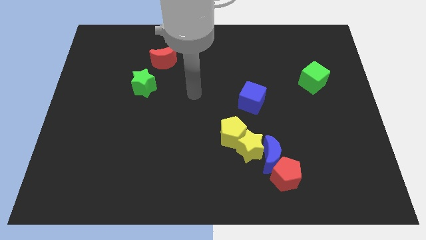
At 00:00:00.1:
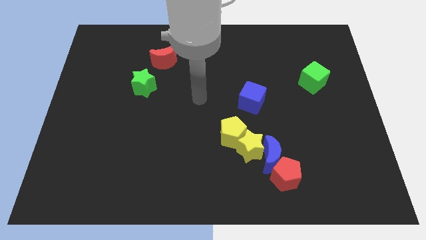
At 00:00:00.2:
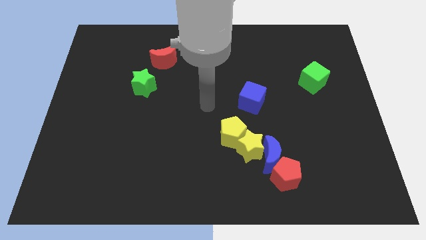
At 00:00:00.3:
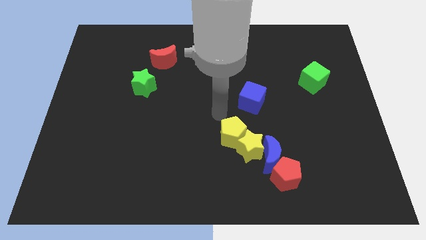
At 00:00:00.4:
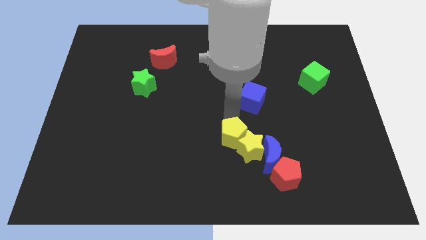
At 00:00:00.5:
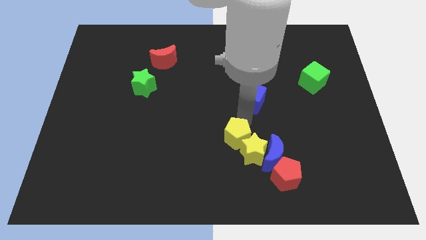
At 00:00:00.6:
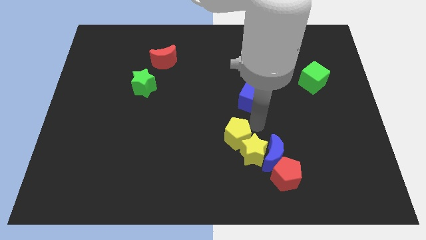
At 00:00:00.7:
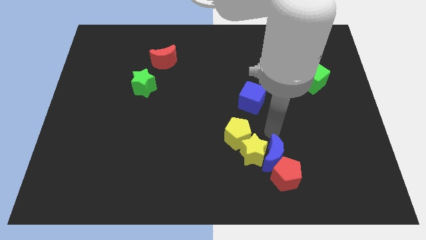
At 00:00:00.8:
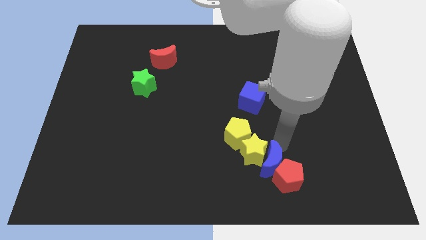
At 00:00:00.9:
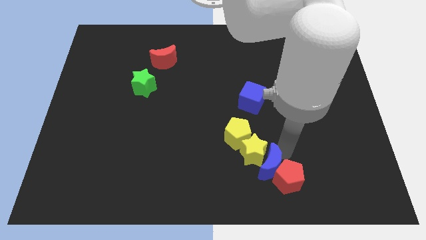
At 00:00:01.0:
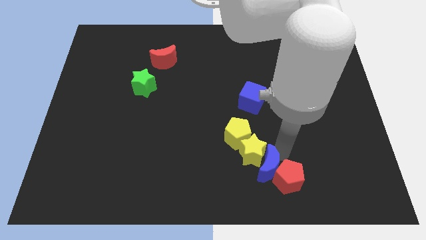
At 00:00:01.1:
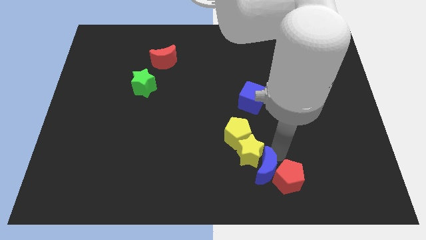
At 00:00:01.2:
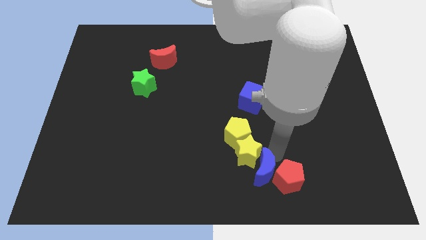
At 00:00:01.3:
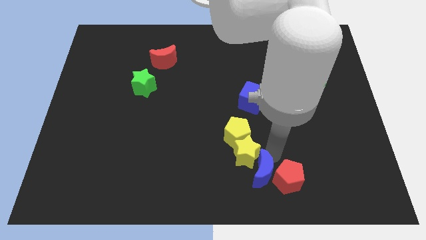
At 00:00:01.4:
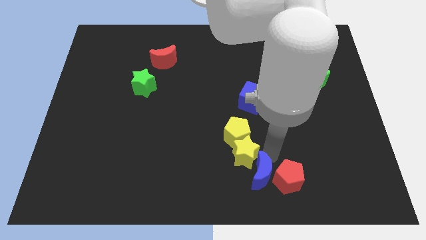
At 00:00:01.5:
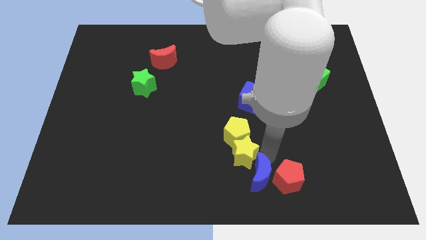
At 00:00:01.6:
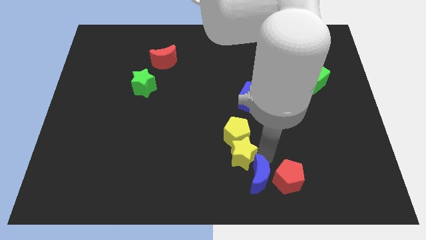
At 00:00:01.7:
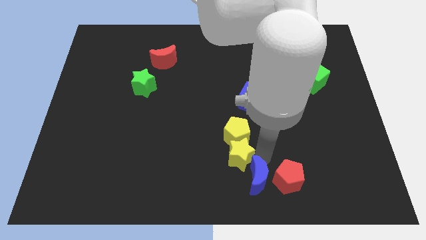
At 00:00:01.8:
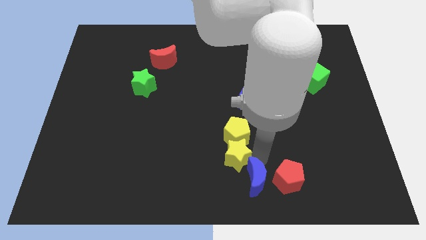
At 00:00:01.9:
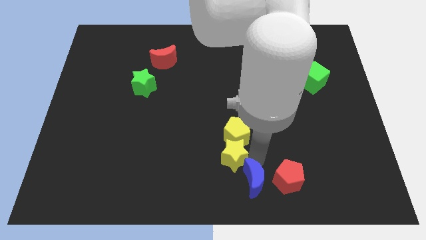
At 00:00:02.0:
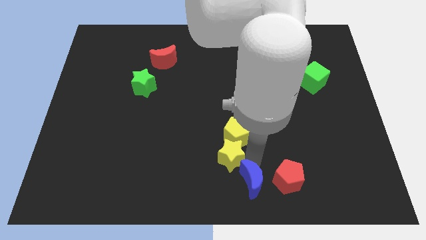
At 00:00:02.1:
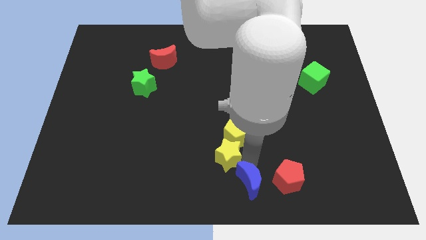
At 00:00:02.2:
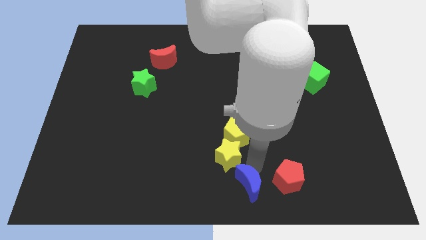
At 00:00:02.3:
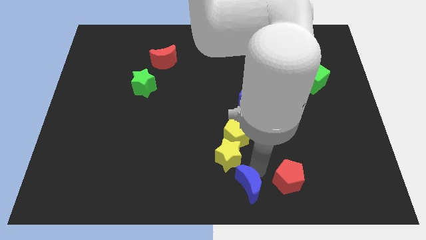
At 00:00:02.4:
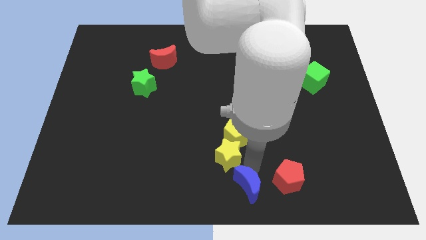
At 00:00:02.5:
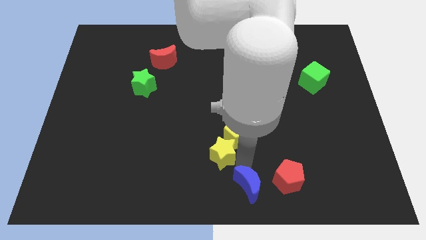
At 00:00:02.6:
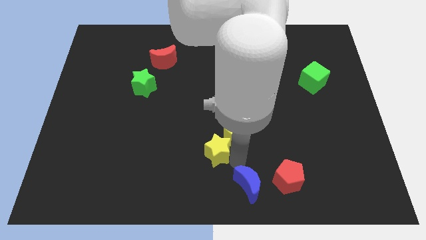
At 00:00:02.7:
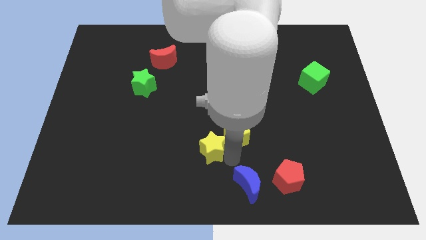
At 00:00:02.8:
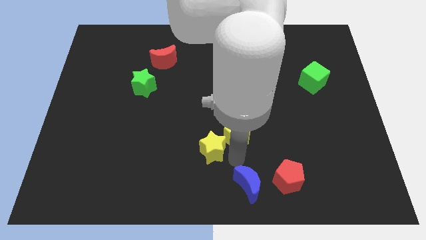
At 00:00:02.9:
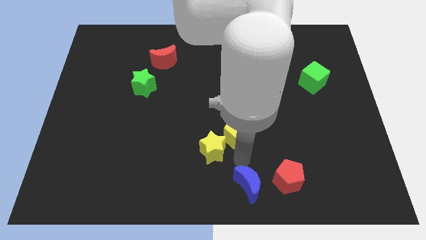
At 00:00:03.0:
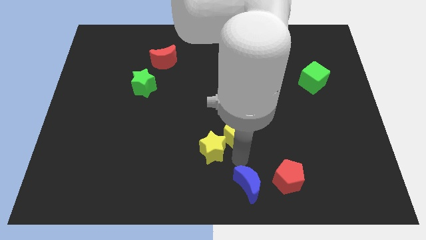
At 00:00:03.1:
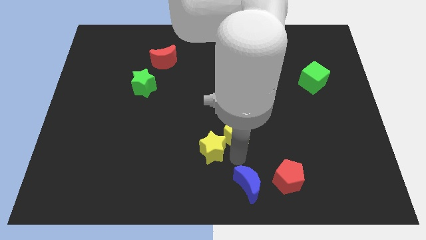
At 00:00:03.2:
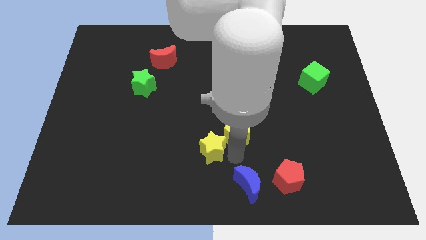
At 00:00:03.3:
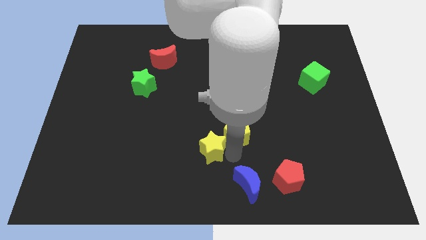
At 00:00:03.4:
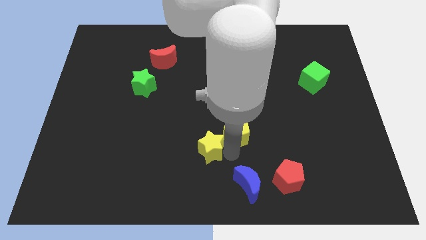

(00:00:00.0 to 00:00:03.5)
pull the yellow star apart from the clump

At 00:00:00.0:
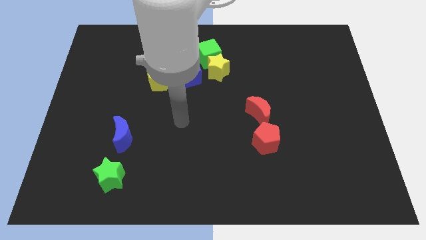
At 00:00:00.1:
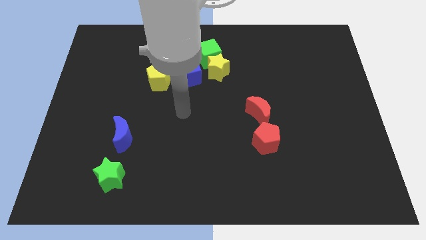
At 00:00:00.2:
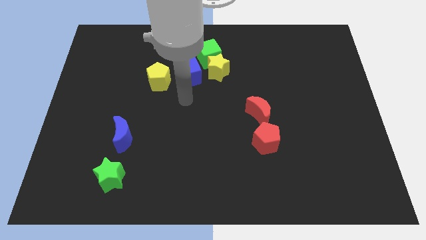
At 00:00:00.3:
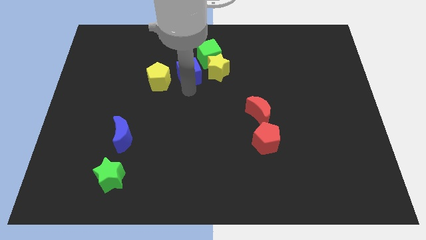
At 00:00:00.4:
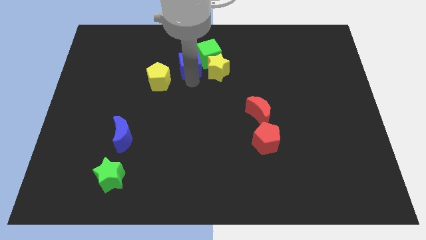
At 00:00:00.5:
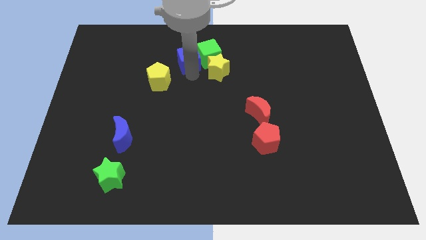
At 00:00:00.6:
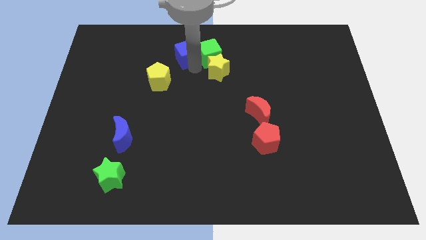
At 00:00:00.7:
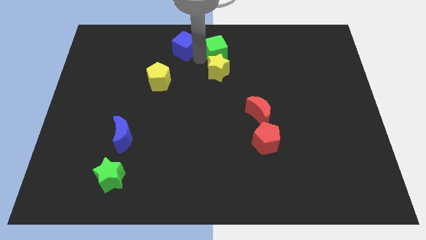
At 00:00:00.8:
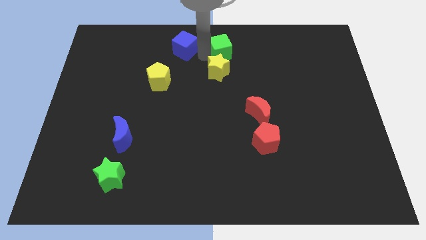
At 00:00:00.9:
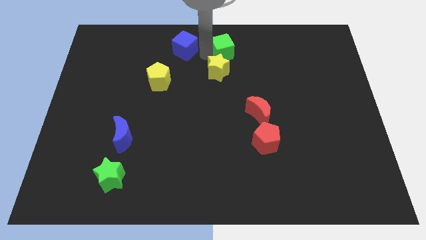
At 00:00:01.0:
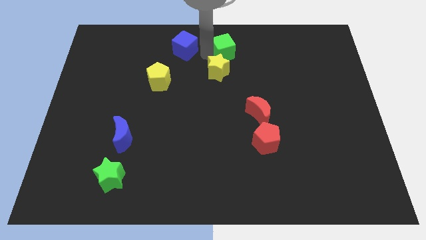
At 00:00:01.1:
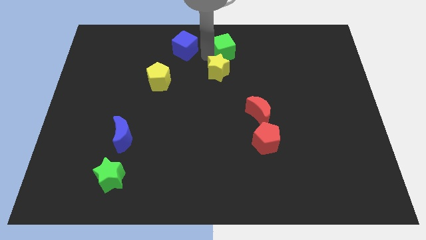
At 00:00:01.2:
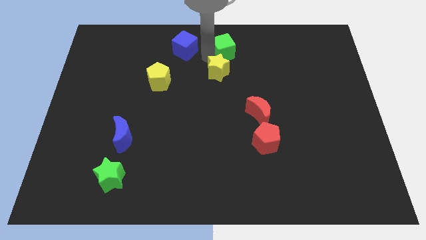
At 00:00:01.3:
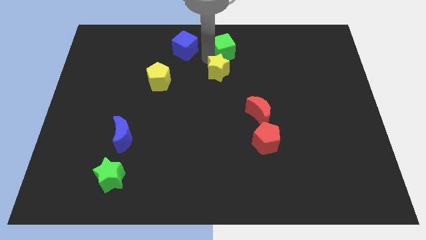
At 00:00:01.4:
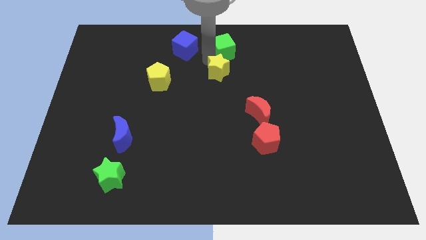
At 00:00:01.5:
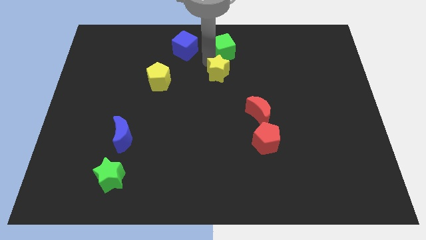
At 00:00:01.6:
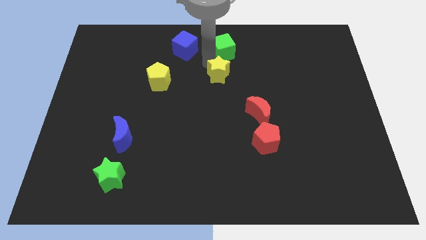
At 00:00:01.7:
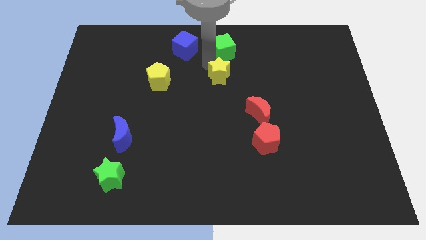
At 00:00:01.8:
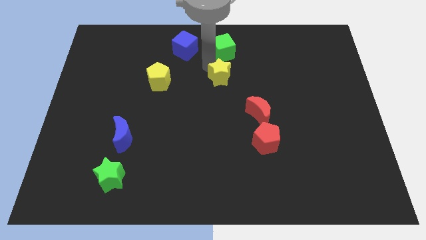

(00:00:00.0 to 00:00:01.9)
pull the yellow star apart from the green cube and blue cube

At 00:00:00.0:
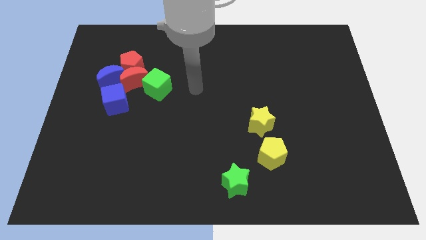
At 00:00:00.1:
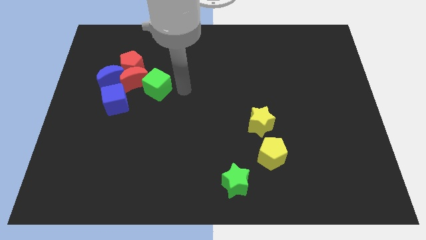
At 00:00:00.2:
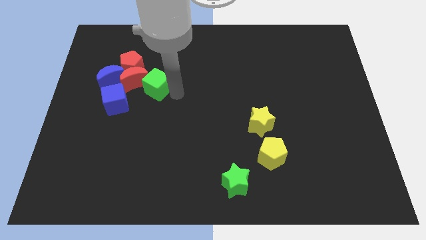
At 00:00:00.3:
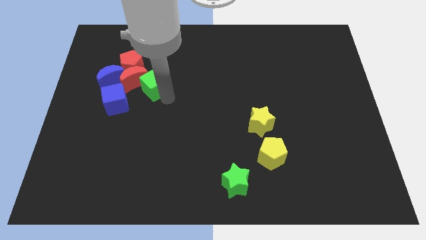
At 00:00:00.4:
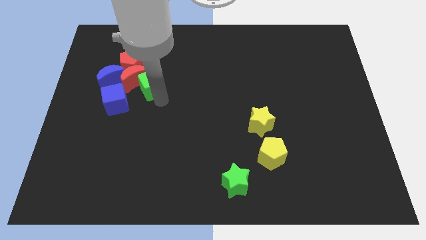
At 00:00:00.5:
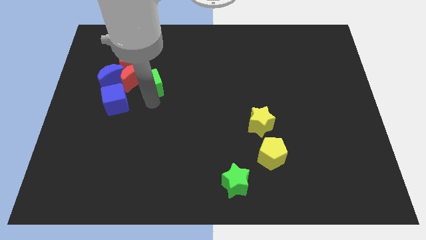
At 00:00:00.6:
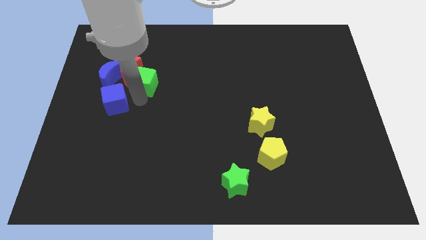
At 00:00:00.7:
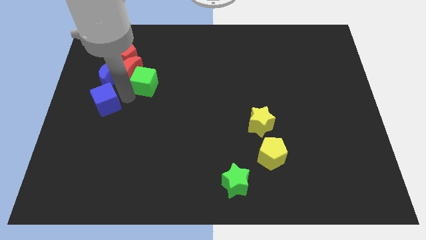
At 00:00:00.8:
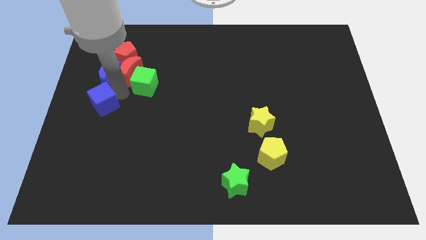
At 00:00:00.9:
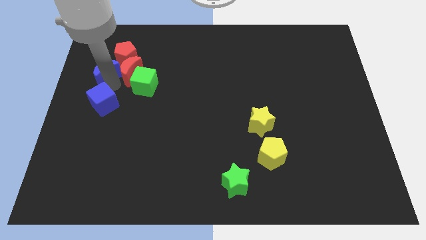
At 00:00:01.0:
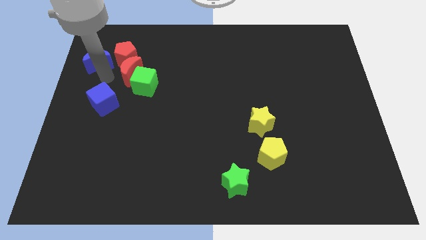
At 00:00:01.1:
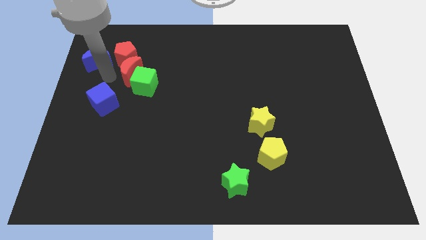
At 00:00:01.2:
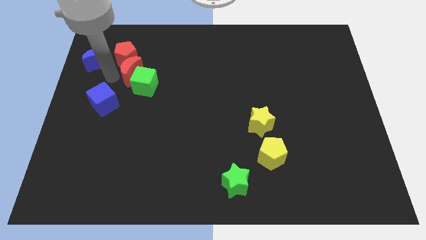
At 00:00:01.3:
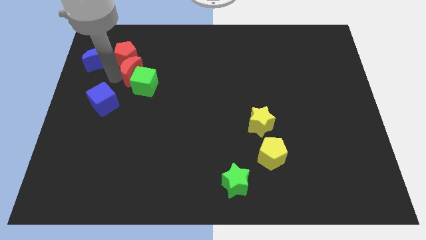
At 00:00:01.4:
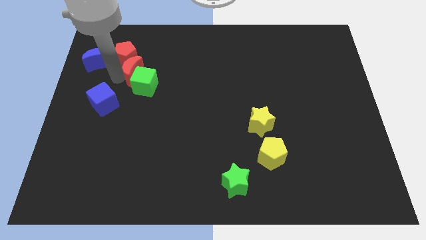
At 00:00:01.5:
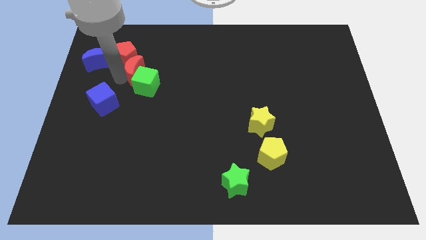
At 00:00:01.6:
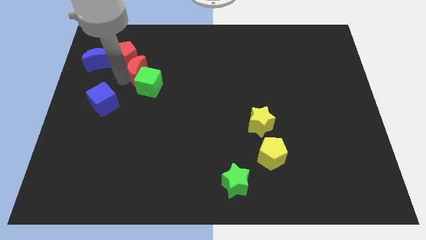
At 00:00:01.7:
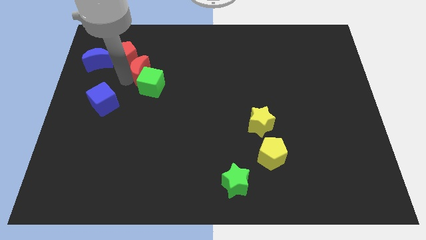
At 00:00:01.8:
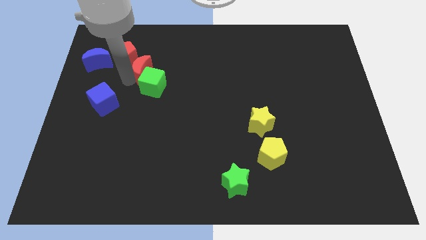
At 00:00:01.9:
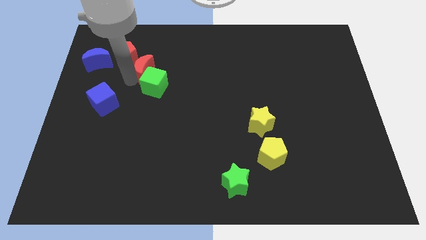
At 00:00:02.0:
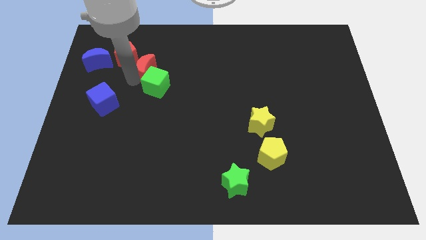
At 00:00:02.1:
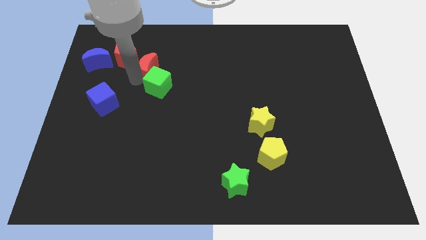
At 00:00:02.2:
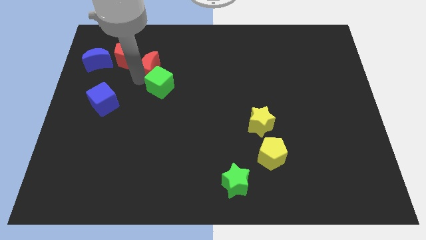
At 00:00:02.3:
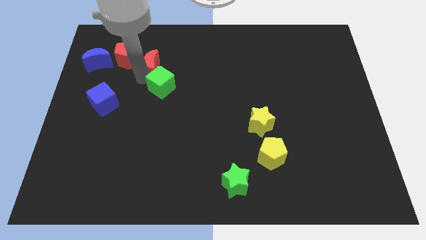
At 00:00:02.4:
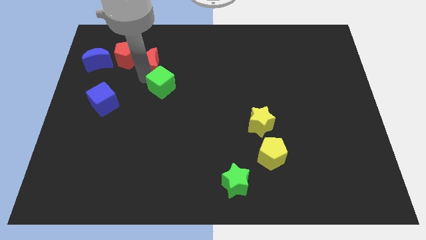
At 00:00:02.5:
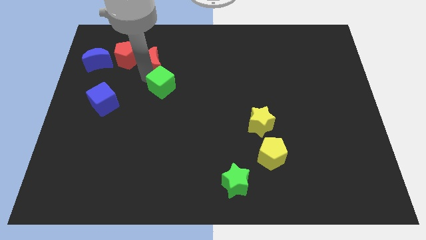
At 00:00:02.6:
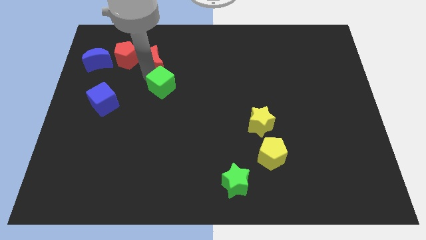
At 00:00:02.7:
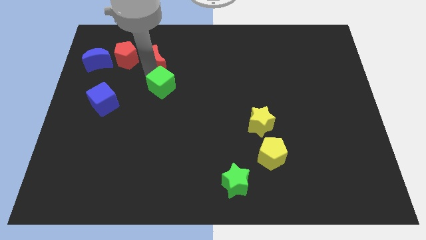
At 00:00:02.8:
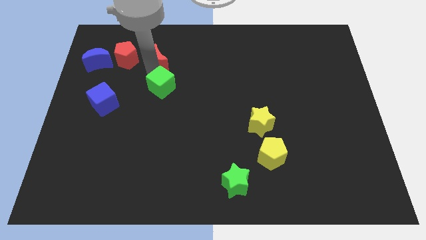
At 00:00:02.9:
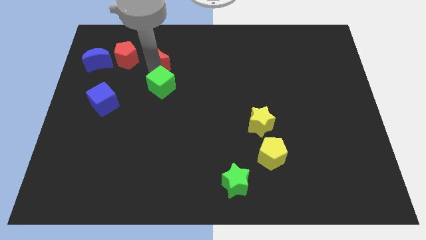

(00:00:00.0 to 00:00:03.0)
move the red moon away from the group

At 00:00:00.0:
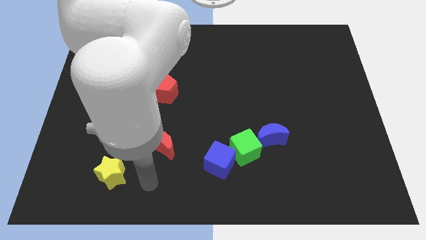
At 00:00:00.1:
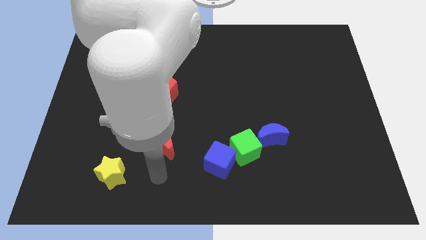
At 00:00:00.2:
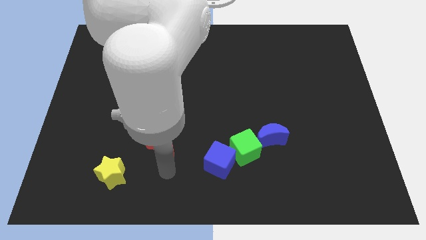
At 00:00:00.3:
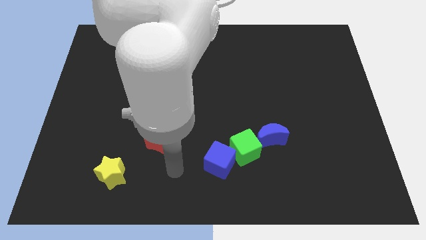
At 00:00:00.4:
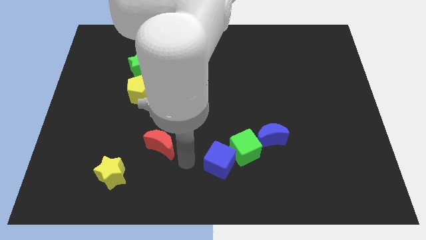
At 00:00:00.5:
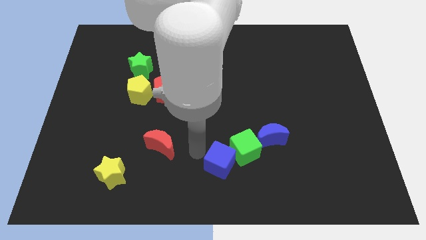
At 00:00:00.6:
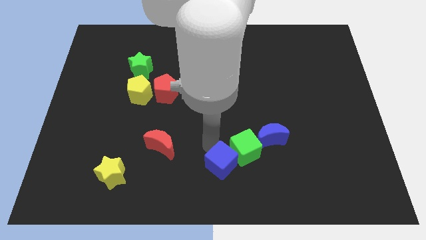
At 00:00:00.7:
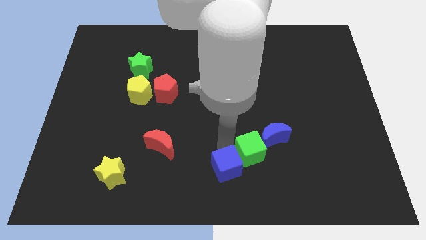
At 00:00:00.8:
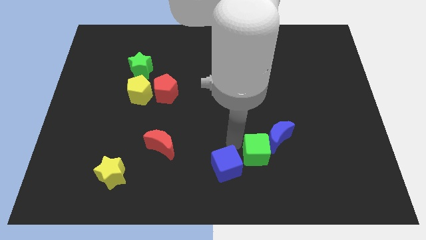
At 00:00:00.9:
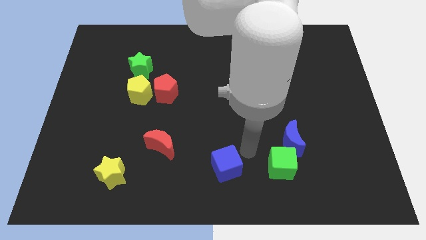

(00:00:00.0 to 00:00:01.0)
move the blue cube away from the green cube
